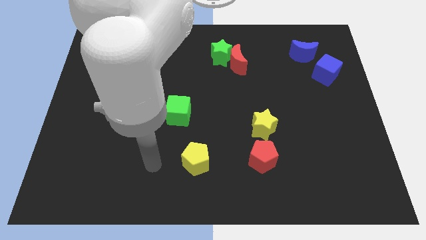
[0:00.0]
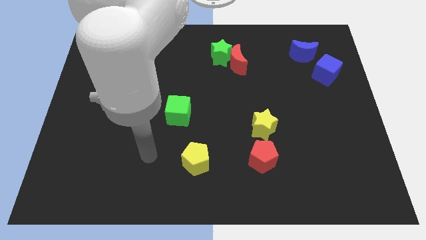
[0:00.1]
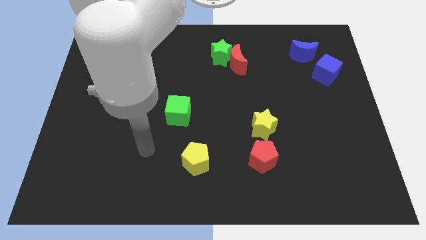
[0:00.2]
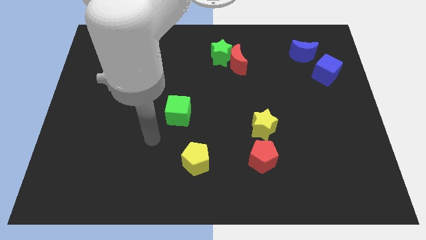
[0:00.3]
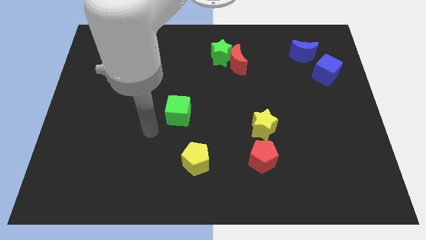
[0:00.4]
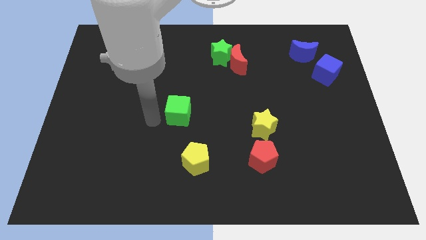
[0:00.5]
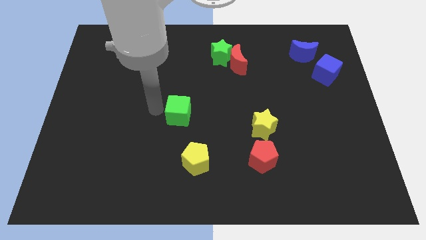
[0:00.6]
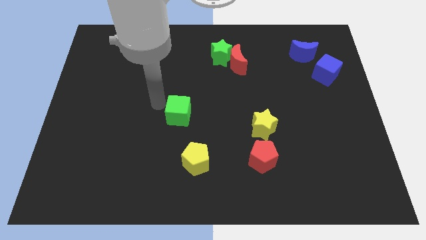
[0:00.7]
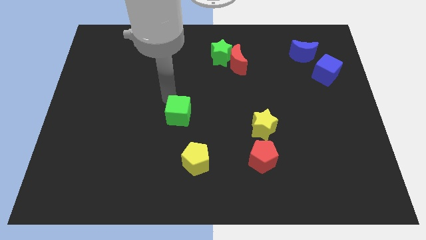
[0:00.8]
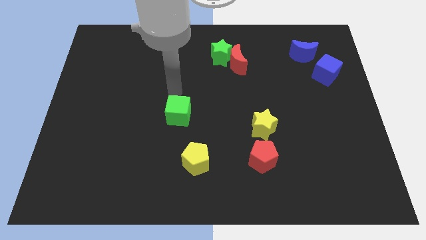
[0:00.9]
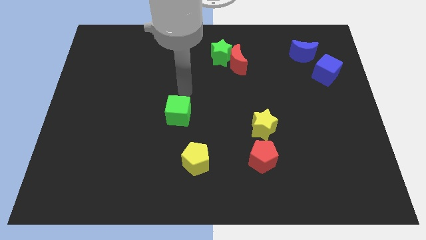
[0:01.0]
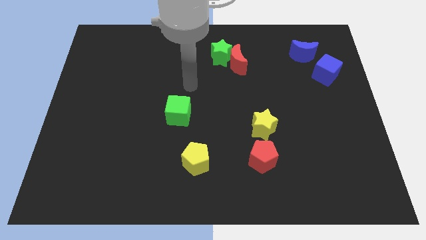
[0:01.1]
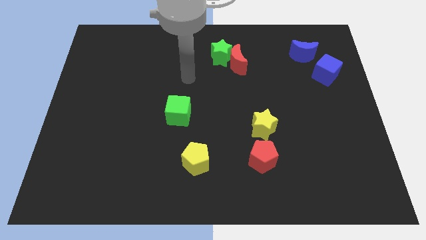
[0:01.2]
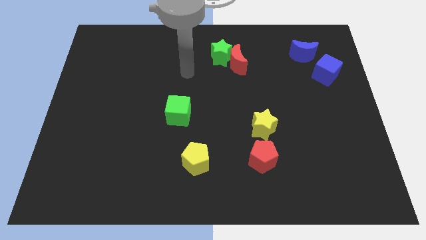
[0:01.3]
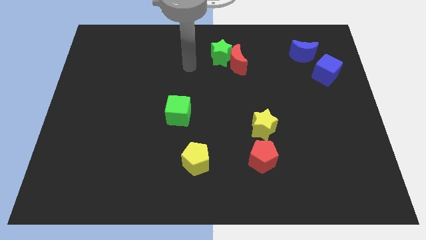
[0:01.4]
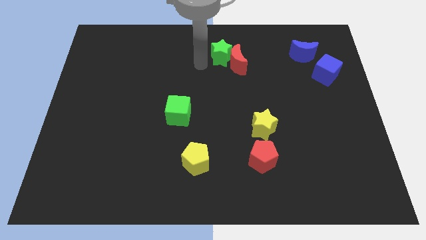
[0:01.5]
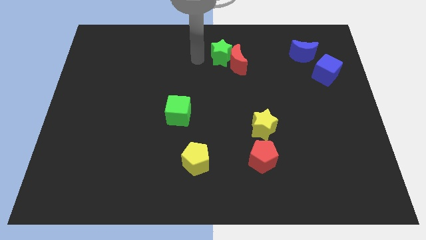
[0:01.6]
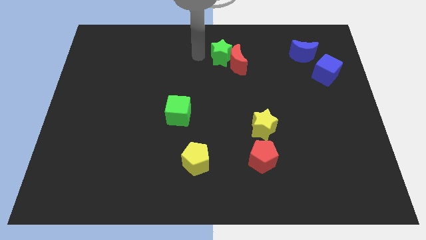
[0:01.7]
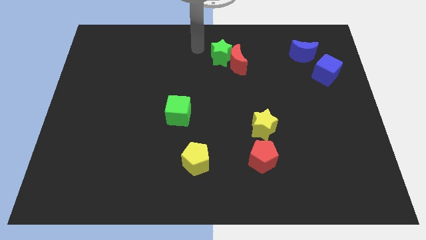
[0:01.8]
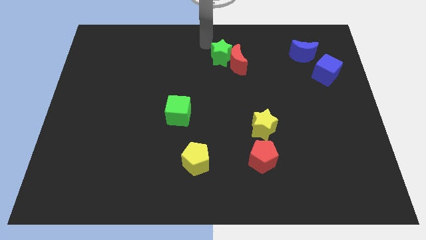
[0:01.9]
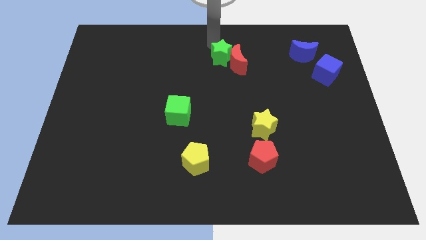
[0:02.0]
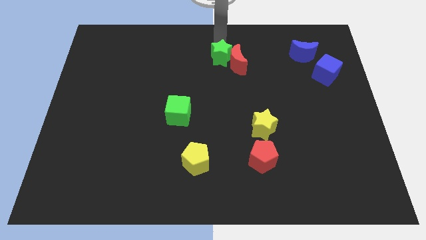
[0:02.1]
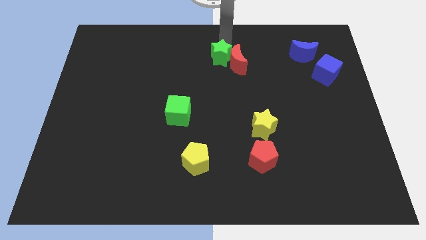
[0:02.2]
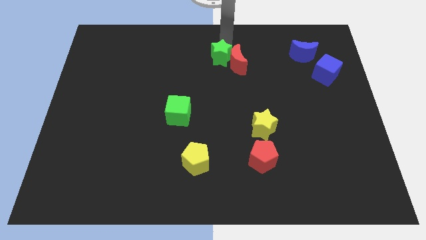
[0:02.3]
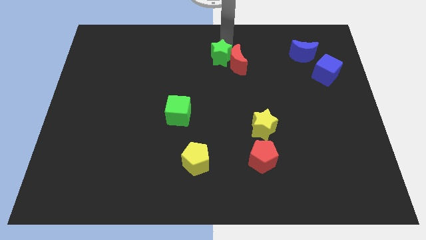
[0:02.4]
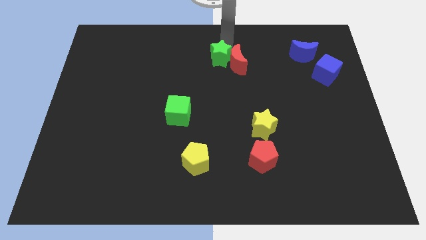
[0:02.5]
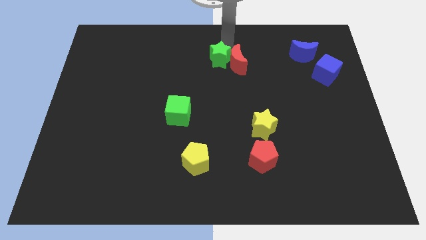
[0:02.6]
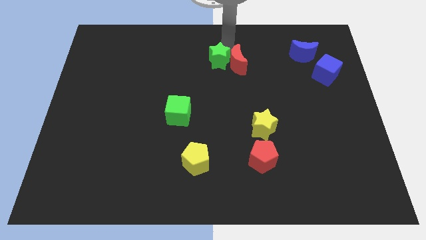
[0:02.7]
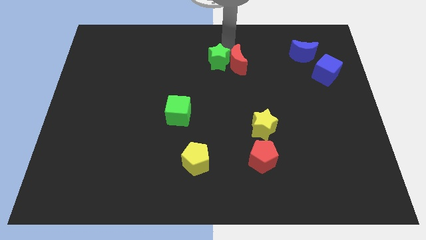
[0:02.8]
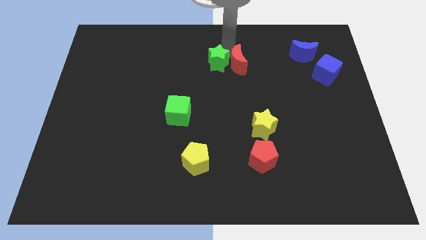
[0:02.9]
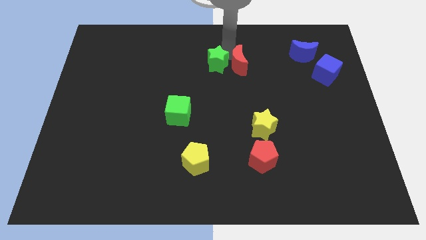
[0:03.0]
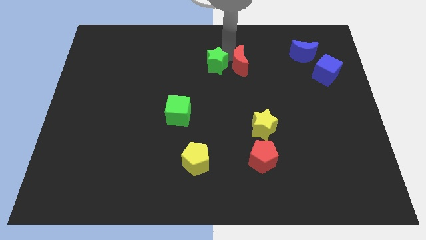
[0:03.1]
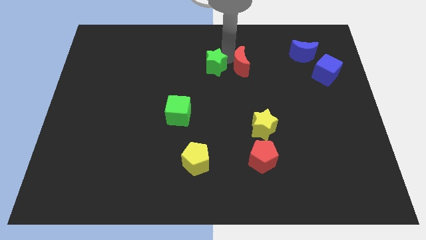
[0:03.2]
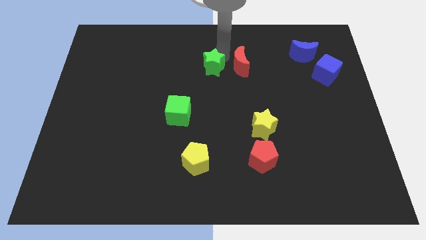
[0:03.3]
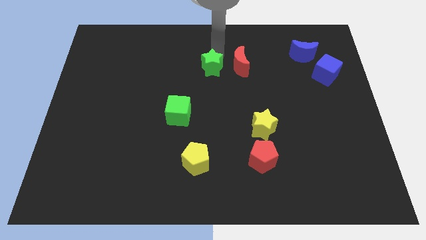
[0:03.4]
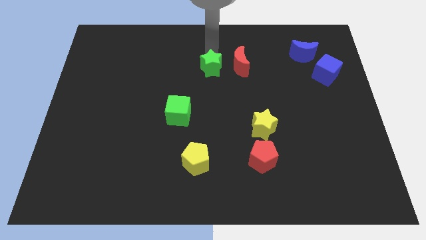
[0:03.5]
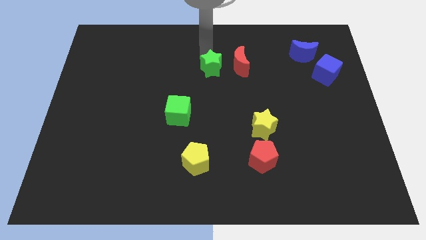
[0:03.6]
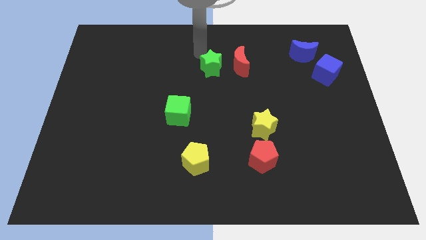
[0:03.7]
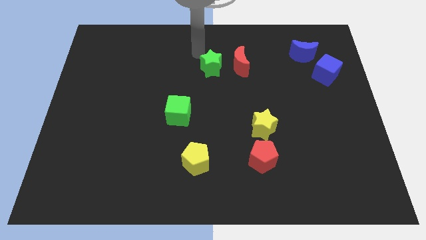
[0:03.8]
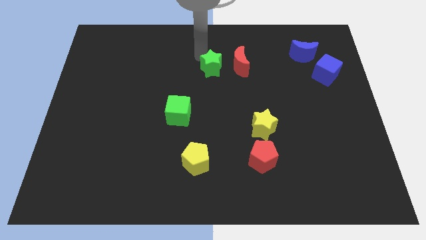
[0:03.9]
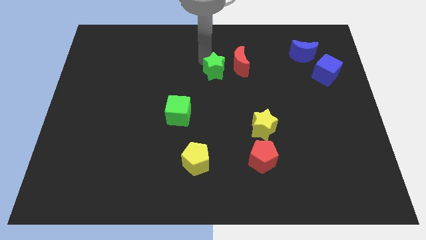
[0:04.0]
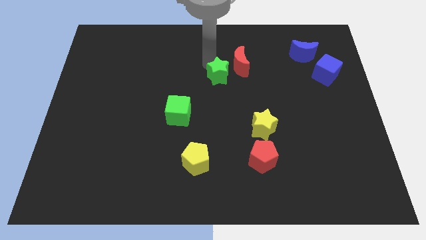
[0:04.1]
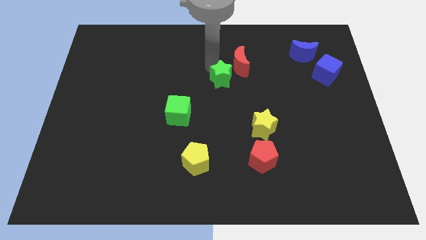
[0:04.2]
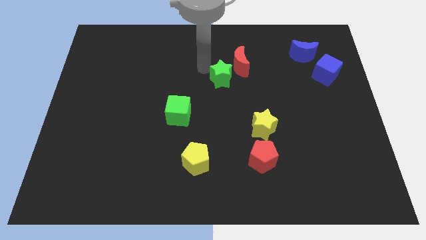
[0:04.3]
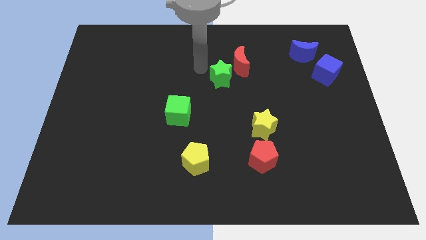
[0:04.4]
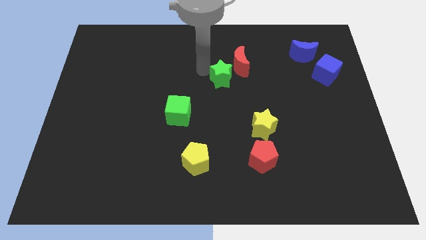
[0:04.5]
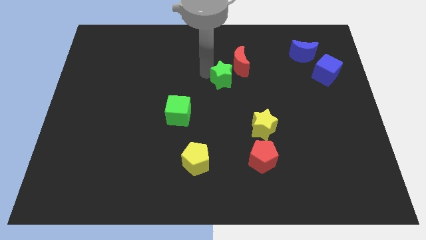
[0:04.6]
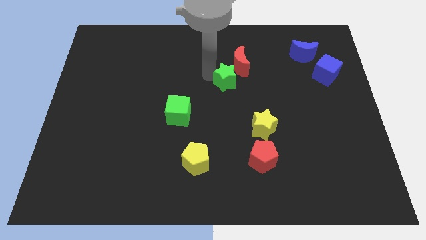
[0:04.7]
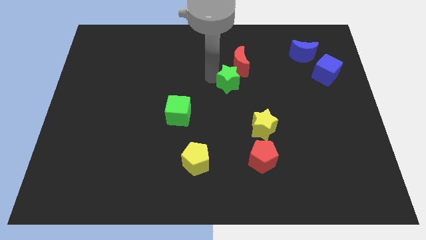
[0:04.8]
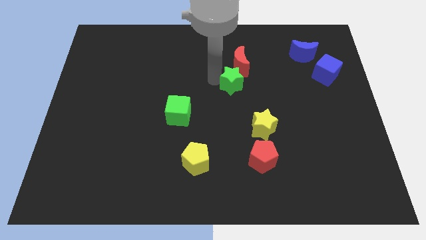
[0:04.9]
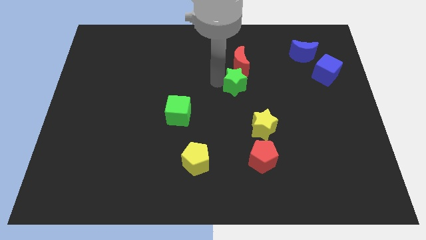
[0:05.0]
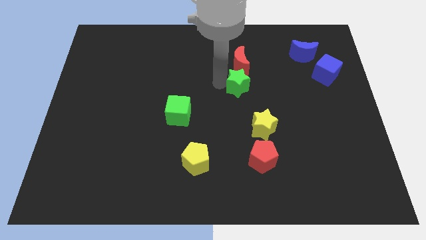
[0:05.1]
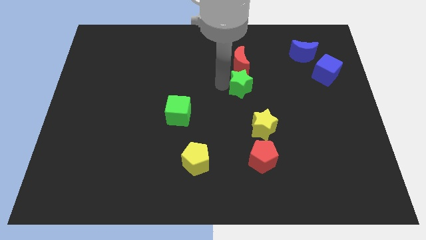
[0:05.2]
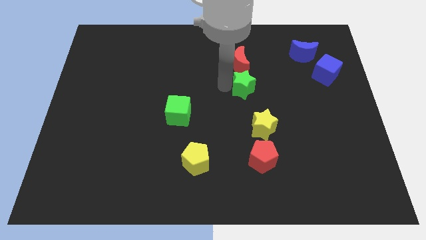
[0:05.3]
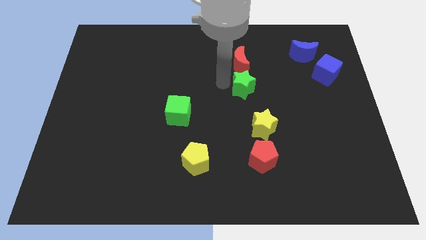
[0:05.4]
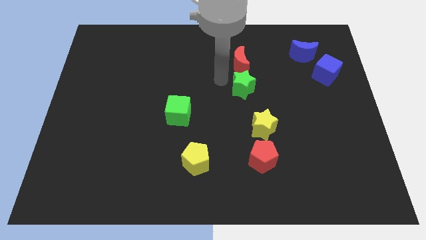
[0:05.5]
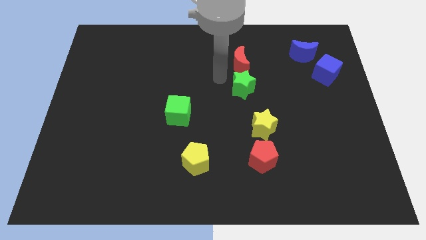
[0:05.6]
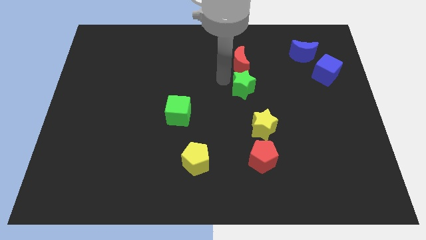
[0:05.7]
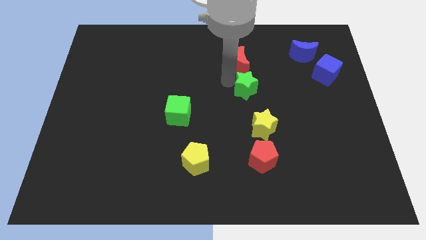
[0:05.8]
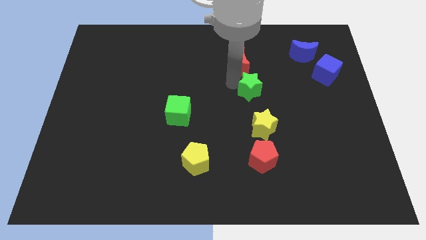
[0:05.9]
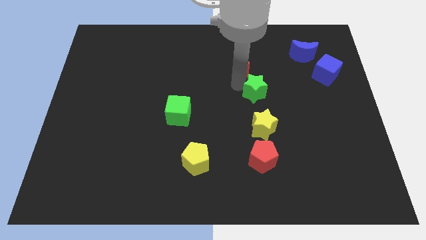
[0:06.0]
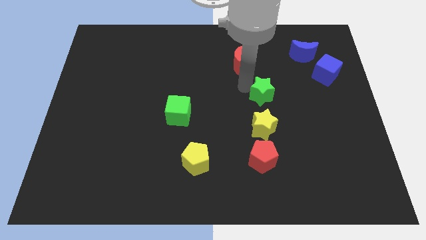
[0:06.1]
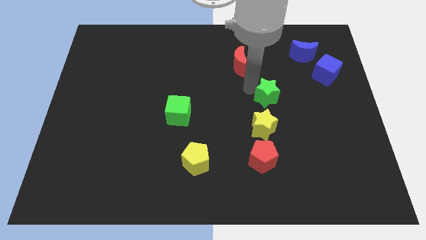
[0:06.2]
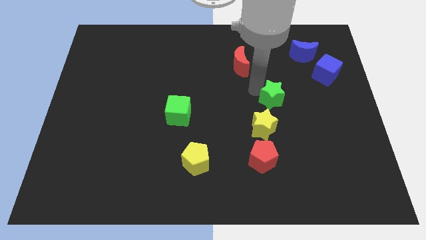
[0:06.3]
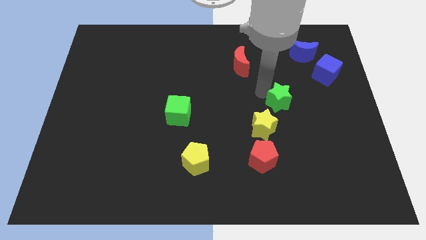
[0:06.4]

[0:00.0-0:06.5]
slide the green star downwards and then to the right

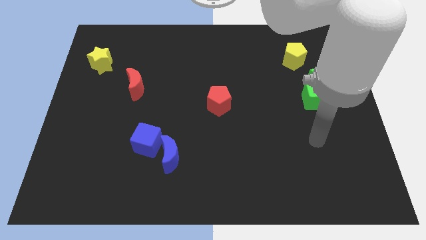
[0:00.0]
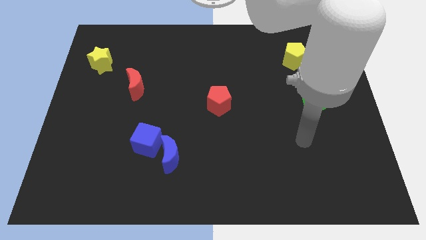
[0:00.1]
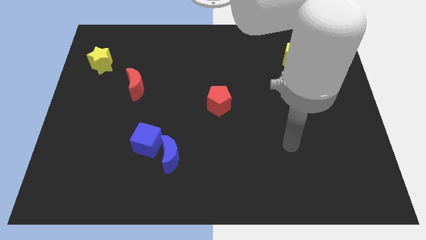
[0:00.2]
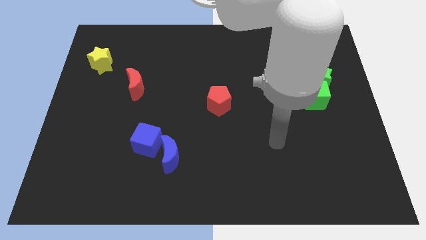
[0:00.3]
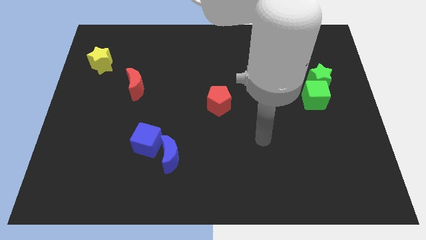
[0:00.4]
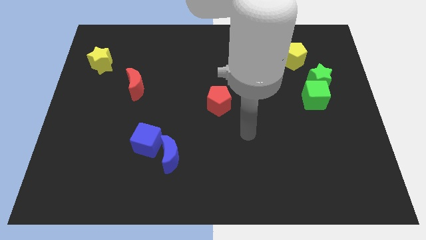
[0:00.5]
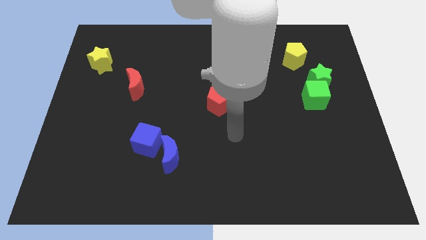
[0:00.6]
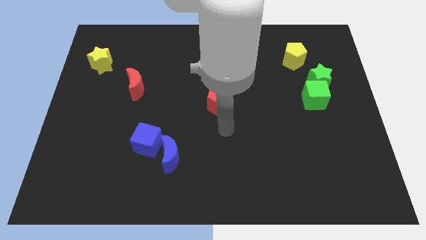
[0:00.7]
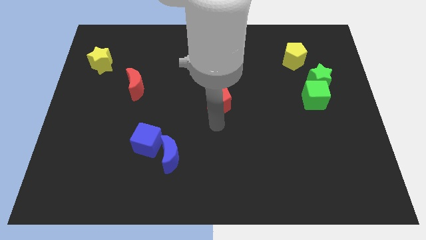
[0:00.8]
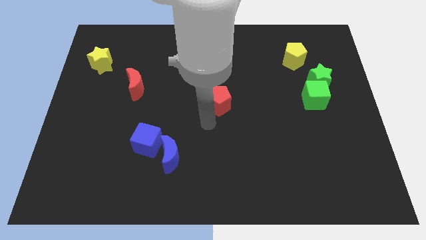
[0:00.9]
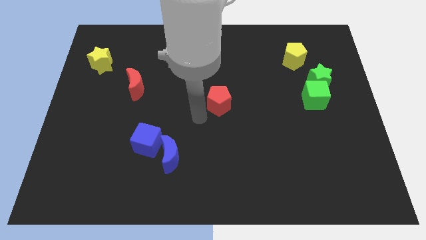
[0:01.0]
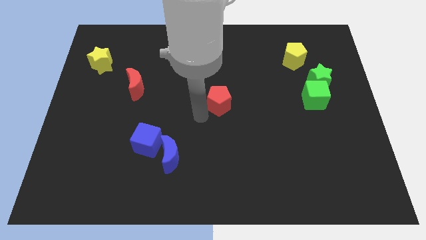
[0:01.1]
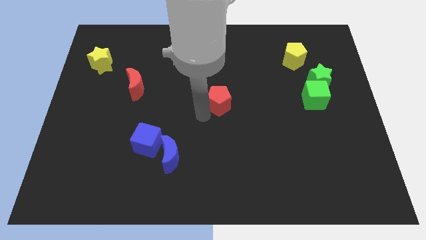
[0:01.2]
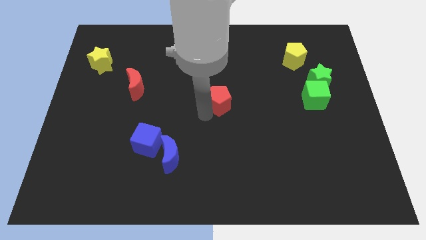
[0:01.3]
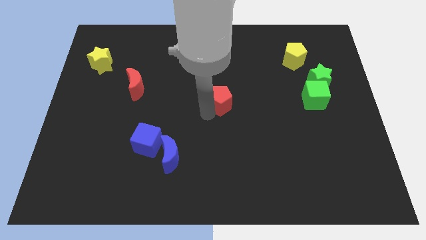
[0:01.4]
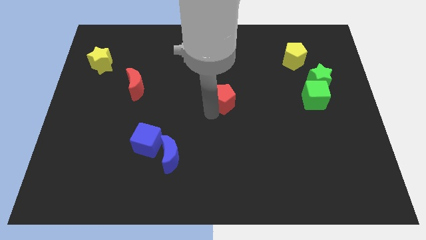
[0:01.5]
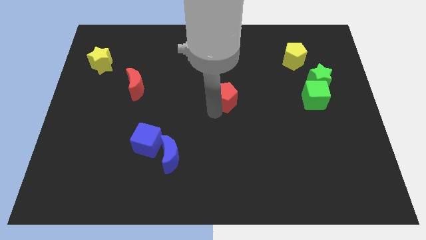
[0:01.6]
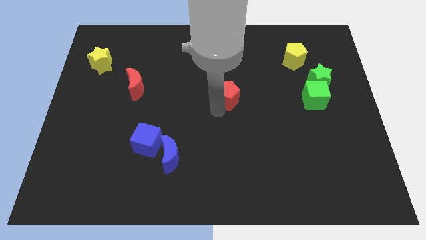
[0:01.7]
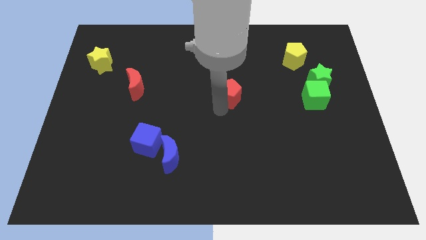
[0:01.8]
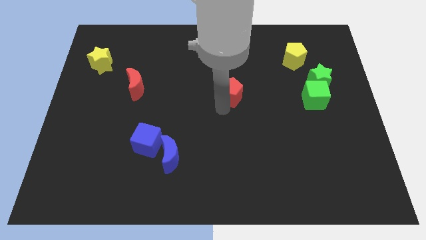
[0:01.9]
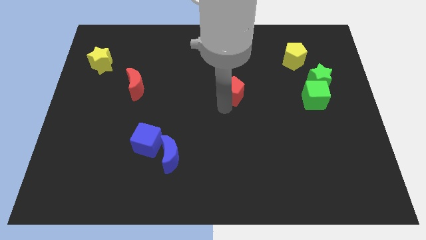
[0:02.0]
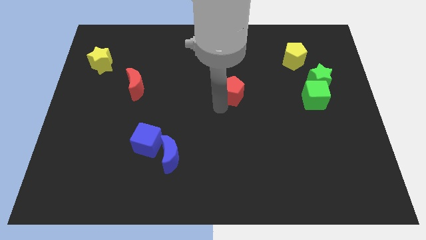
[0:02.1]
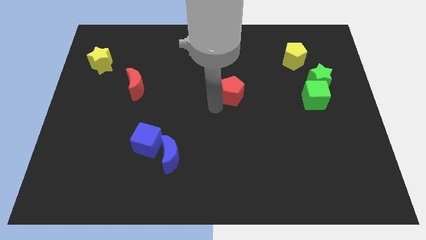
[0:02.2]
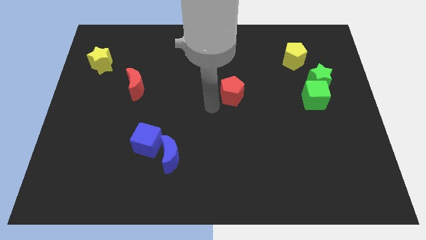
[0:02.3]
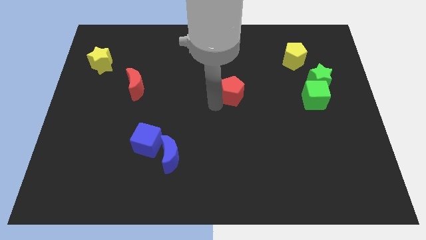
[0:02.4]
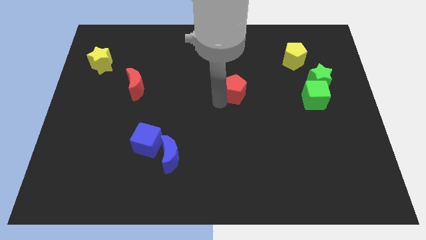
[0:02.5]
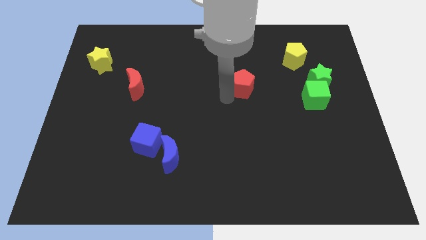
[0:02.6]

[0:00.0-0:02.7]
push the red pentagon somewhat diagonally upwards and right
